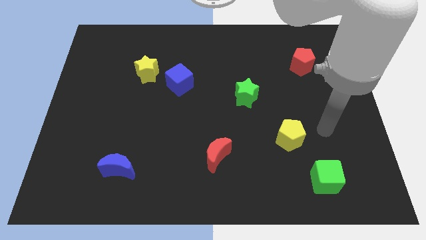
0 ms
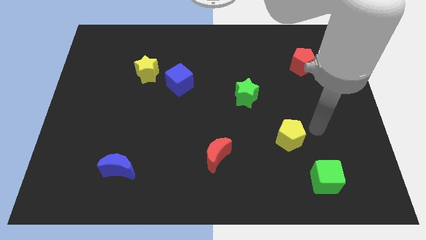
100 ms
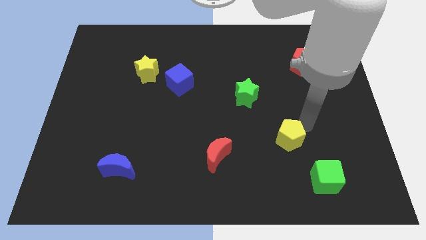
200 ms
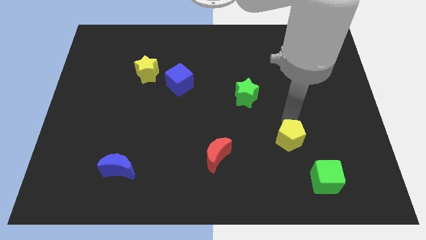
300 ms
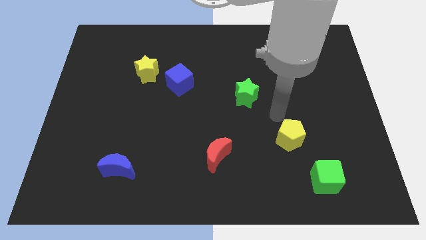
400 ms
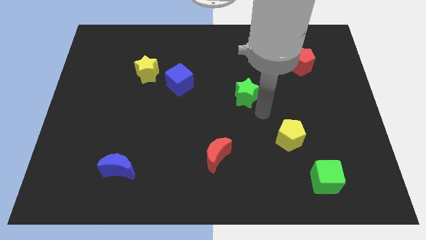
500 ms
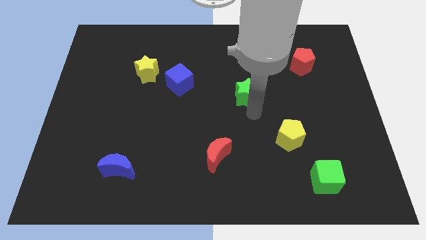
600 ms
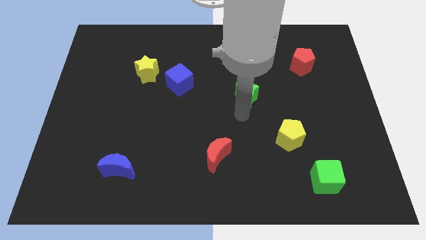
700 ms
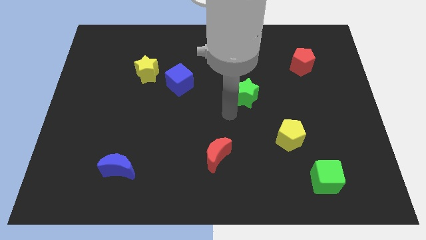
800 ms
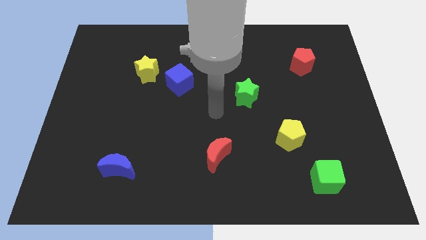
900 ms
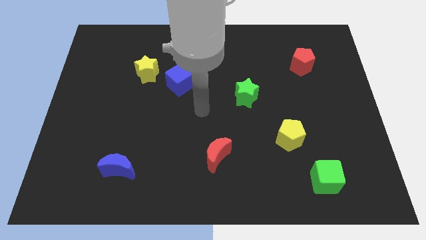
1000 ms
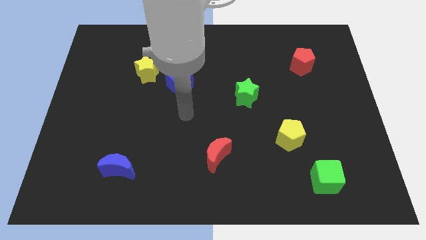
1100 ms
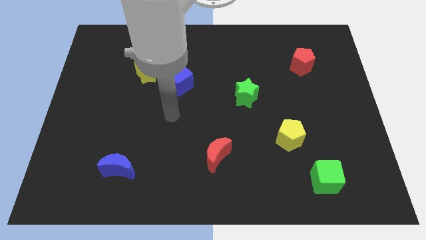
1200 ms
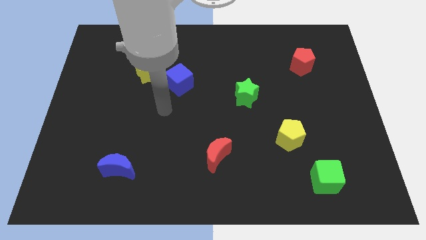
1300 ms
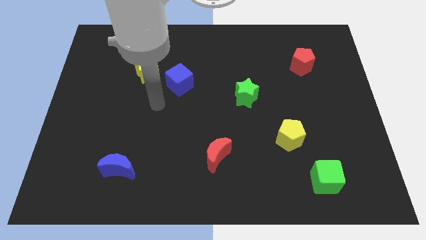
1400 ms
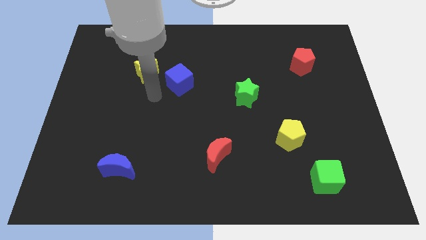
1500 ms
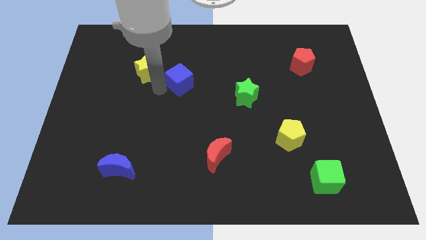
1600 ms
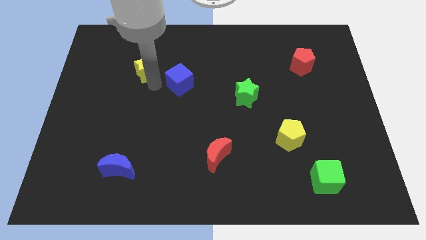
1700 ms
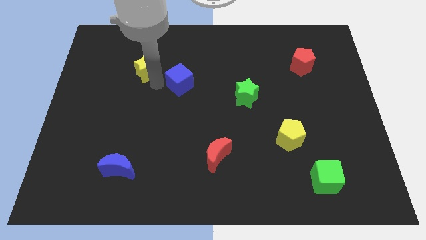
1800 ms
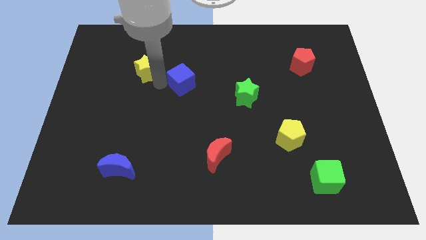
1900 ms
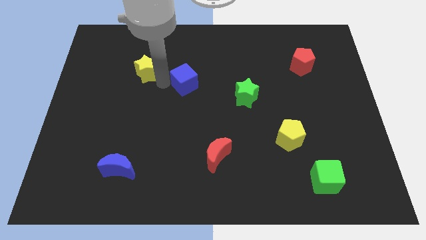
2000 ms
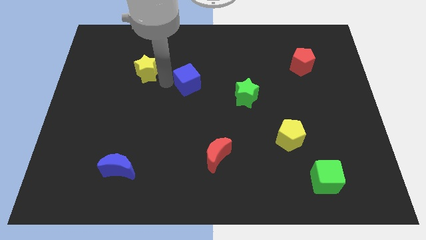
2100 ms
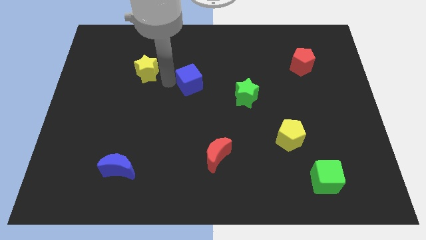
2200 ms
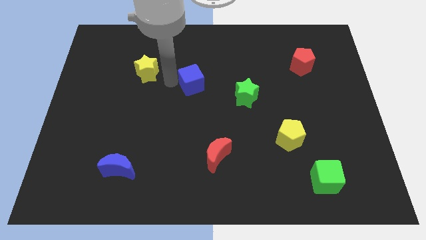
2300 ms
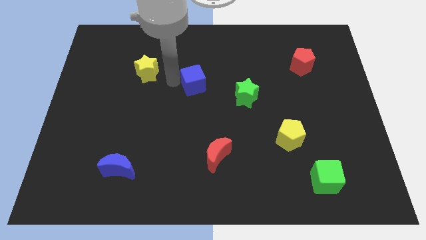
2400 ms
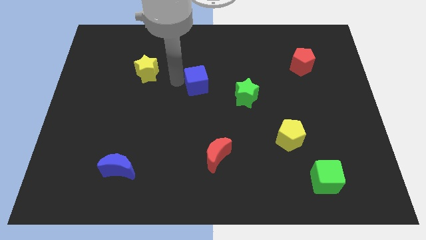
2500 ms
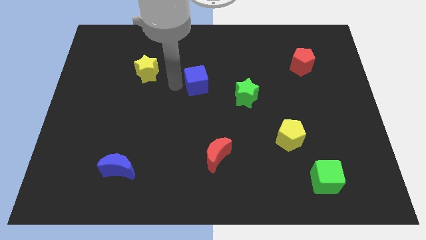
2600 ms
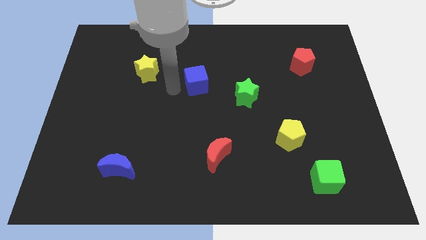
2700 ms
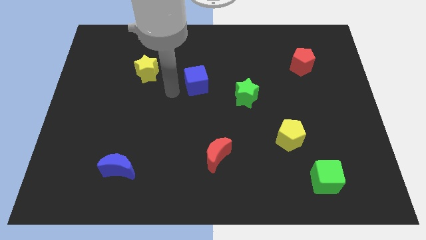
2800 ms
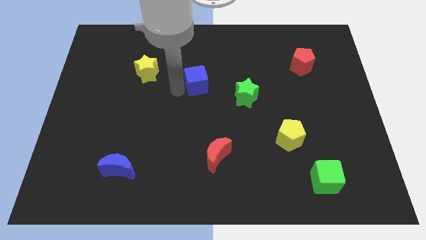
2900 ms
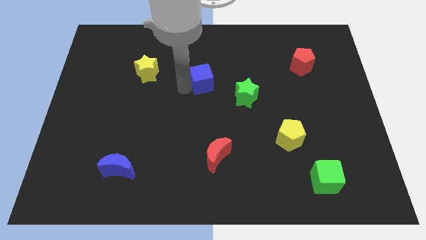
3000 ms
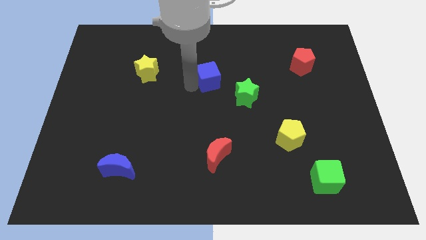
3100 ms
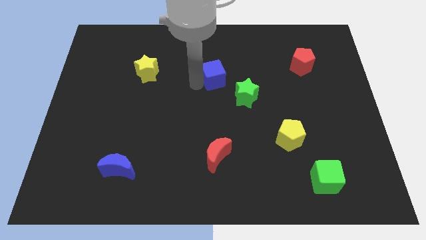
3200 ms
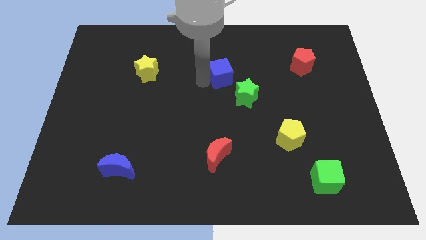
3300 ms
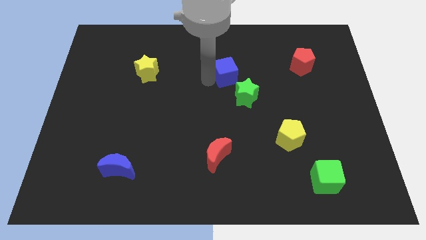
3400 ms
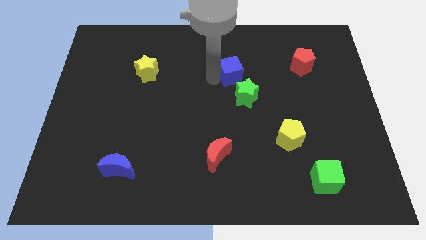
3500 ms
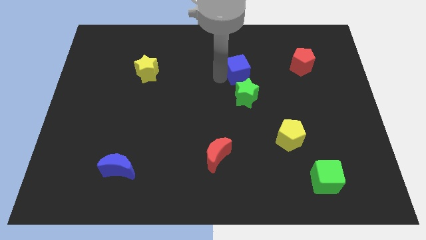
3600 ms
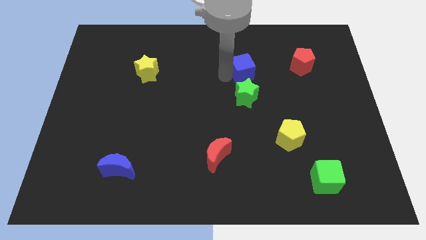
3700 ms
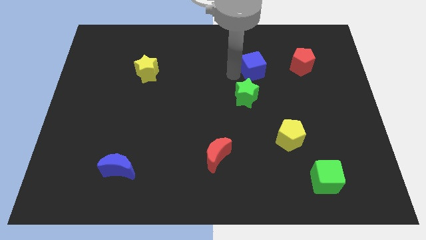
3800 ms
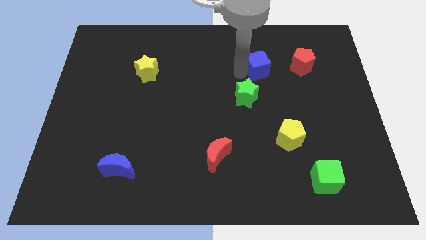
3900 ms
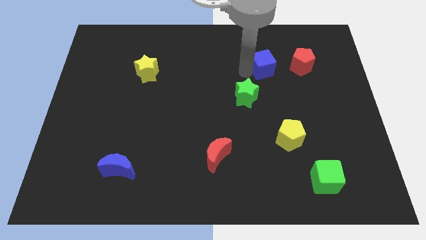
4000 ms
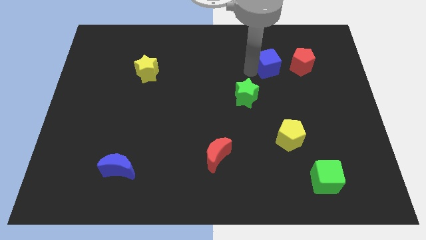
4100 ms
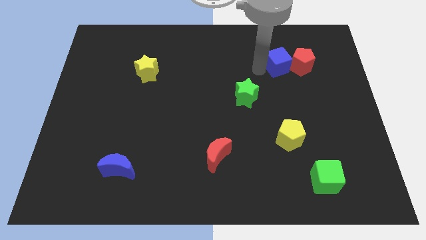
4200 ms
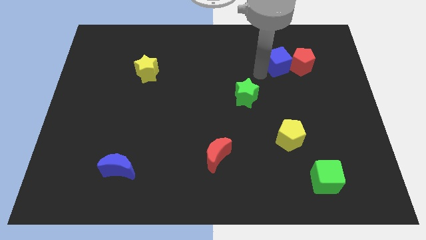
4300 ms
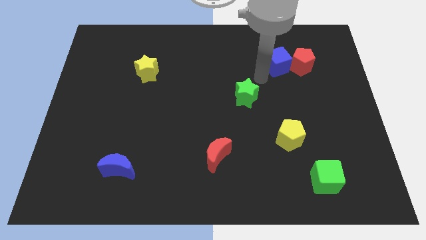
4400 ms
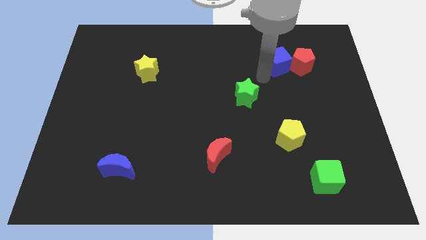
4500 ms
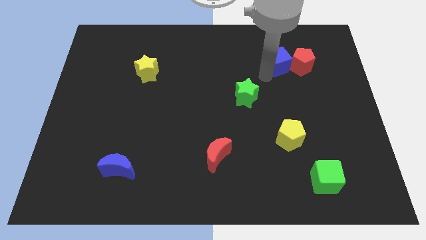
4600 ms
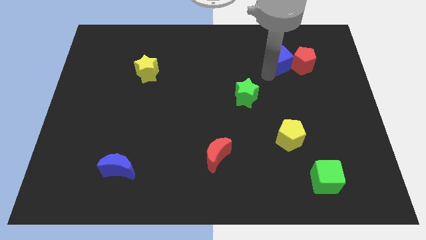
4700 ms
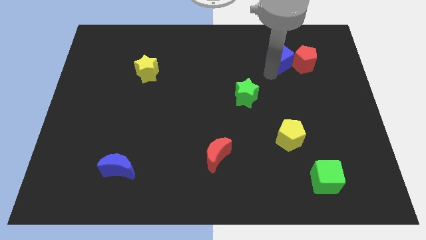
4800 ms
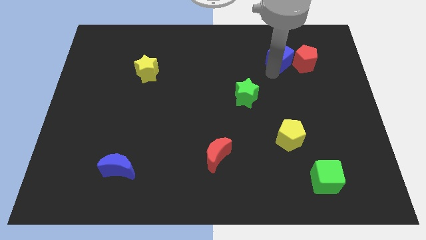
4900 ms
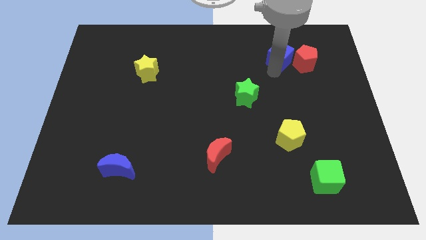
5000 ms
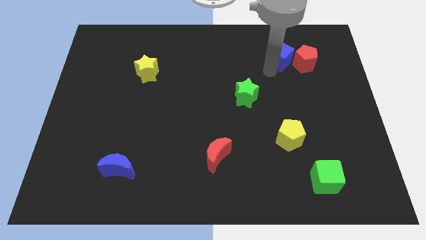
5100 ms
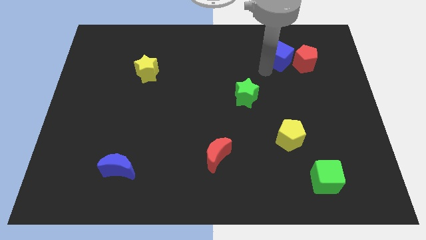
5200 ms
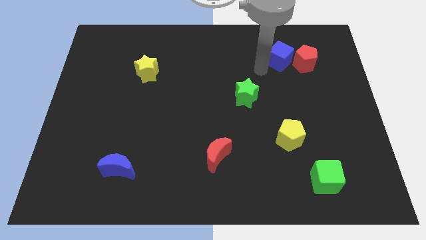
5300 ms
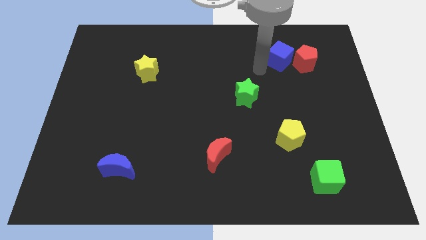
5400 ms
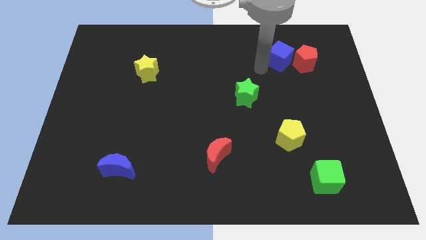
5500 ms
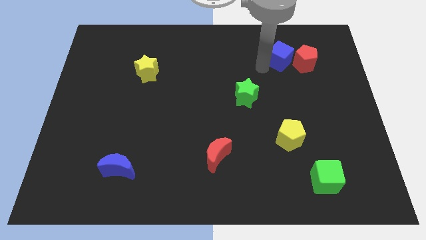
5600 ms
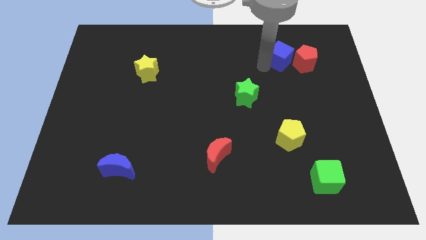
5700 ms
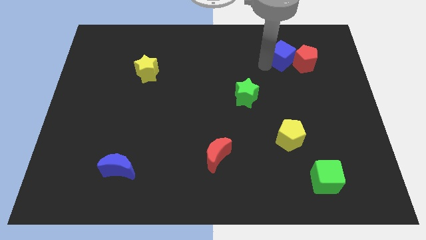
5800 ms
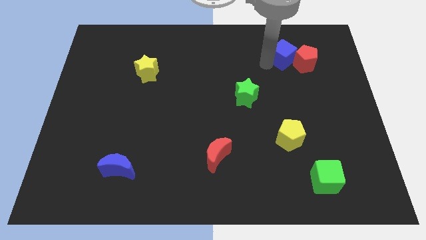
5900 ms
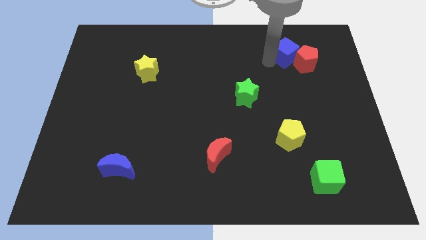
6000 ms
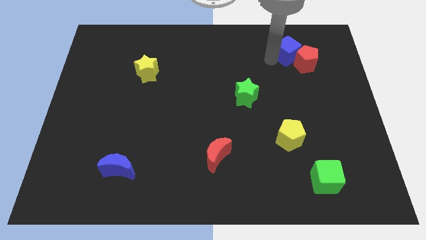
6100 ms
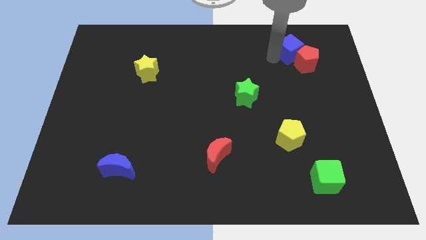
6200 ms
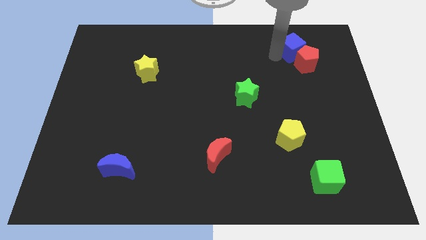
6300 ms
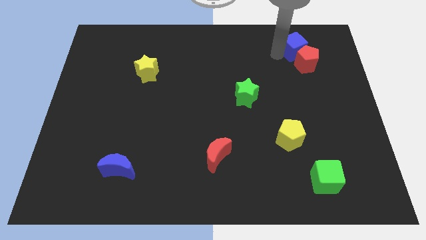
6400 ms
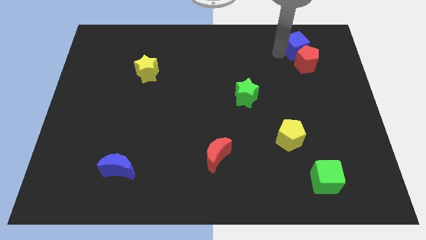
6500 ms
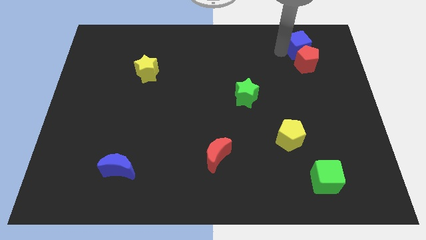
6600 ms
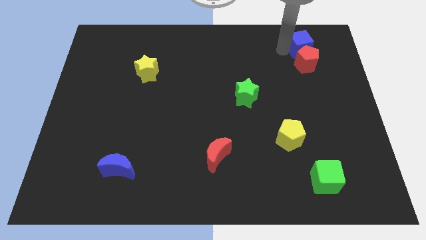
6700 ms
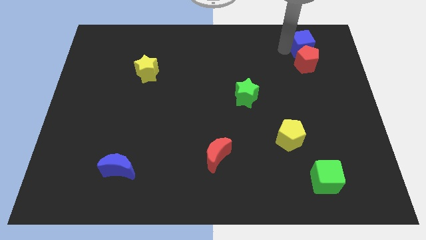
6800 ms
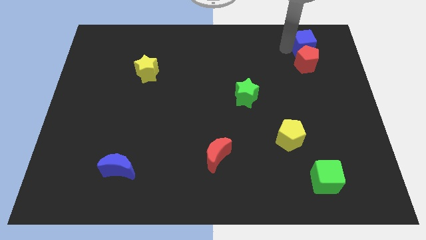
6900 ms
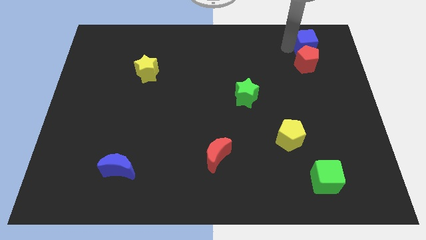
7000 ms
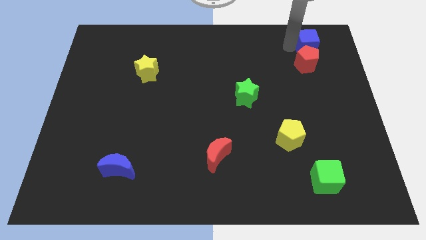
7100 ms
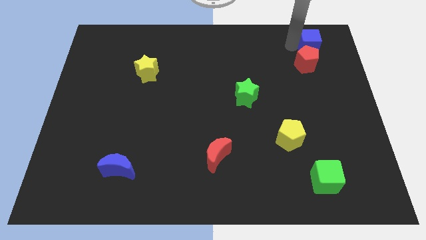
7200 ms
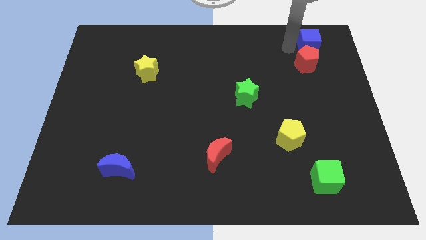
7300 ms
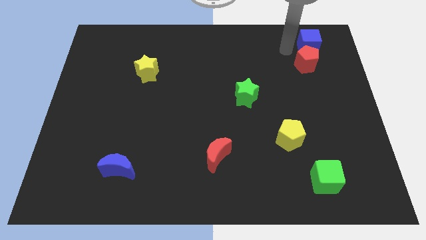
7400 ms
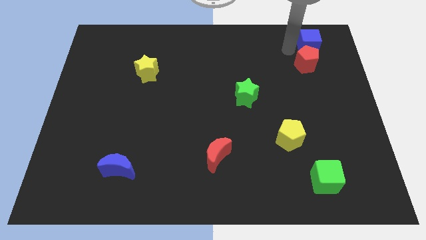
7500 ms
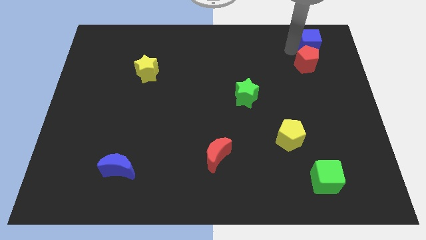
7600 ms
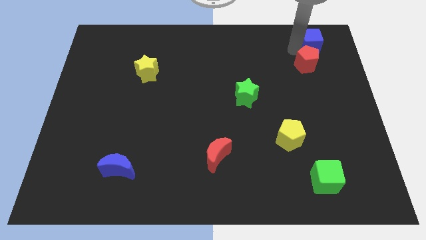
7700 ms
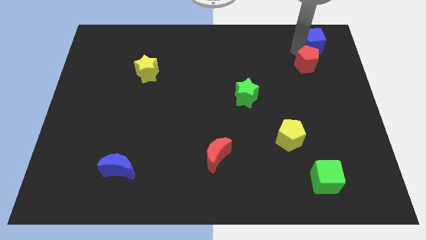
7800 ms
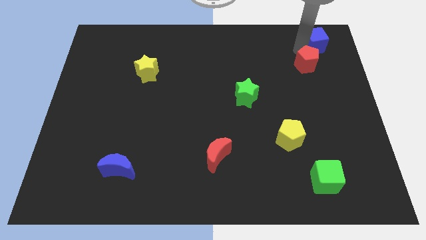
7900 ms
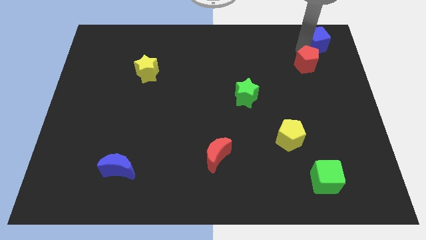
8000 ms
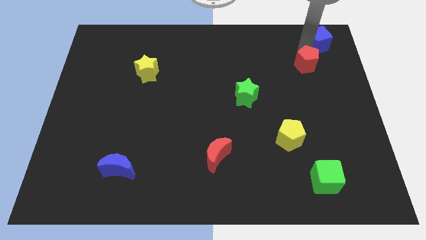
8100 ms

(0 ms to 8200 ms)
move the blue cube to the upper right corner
